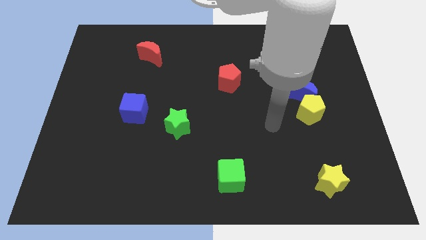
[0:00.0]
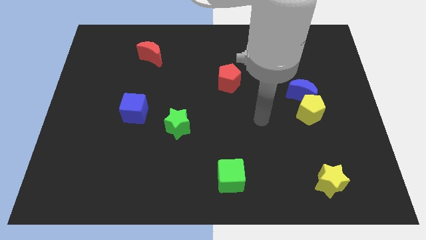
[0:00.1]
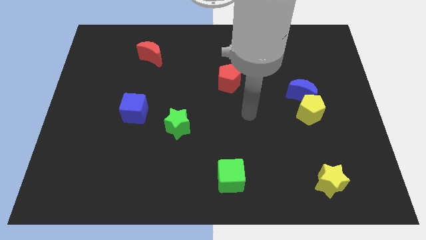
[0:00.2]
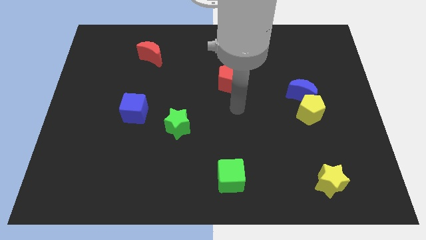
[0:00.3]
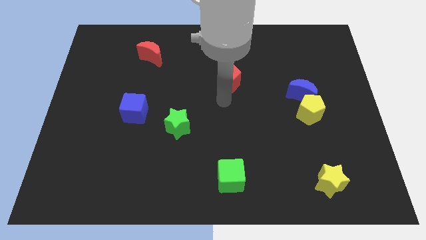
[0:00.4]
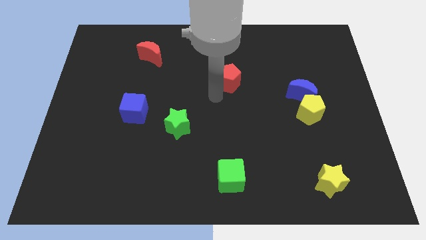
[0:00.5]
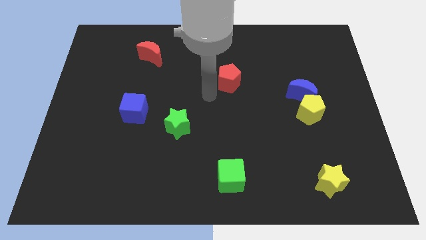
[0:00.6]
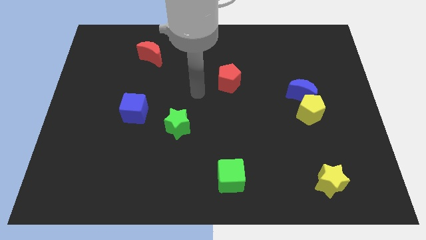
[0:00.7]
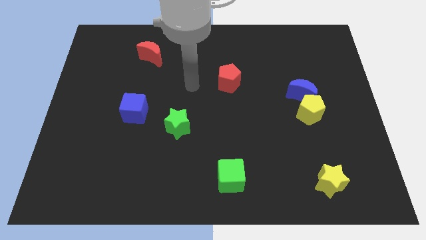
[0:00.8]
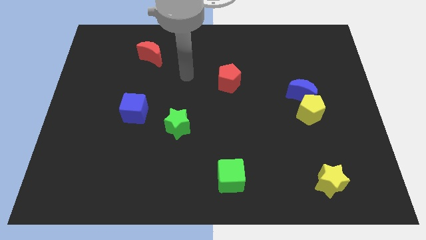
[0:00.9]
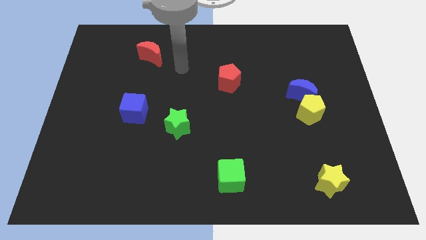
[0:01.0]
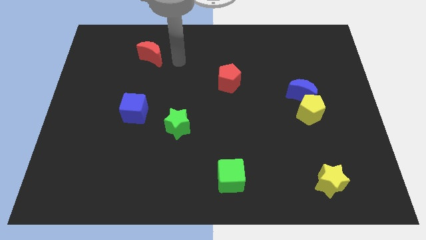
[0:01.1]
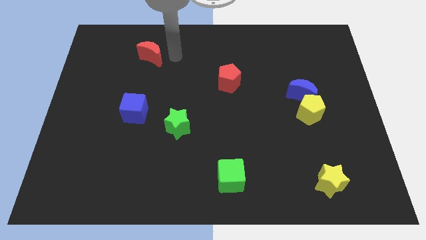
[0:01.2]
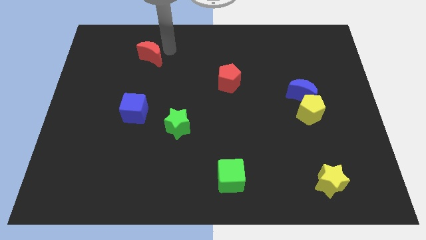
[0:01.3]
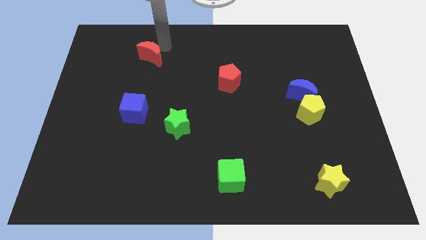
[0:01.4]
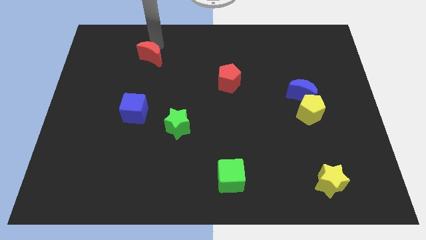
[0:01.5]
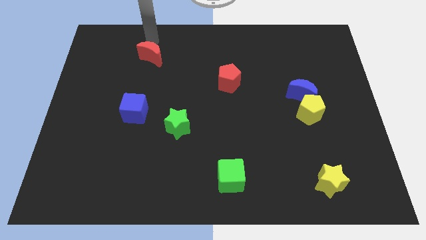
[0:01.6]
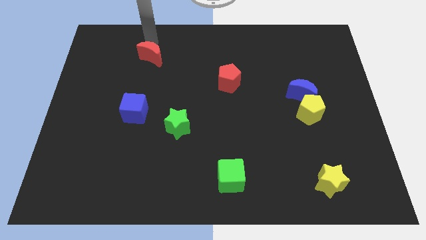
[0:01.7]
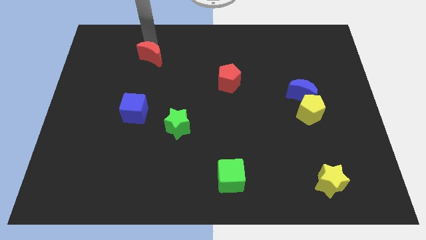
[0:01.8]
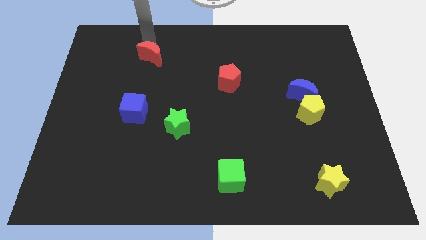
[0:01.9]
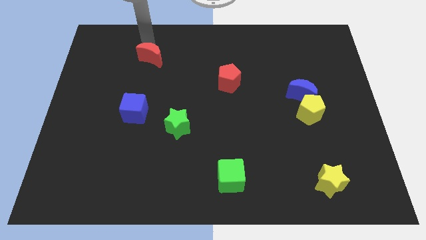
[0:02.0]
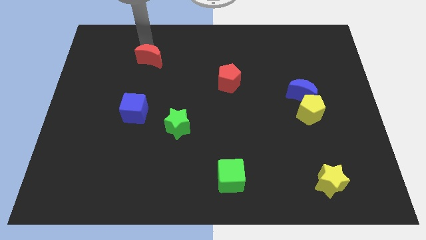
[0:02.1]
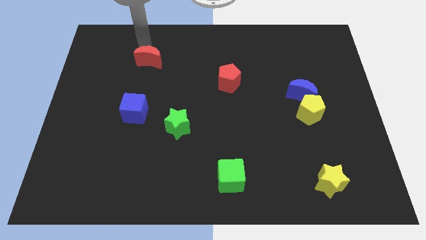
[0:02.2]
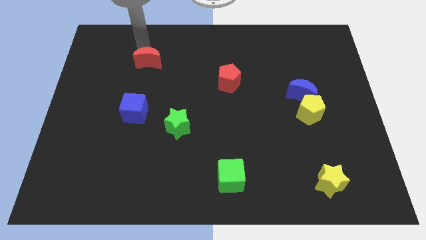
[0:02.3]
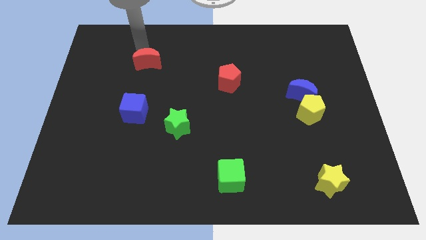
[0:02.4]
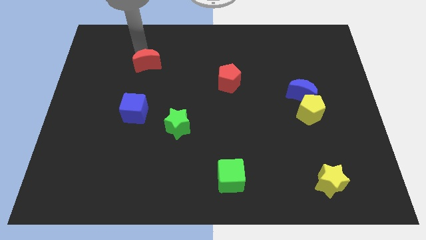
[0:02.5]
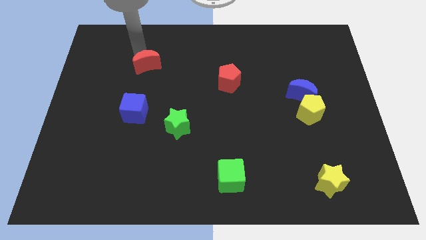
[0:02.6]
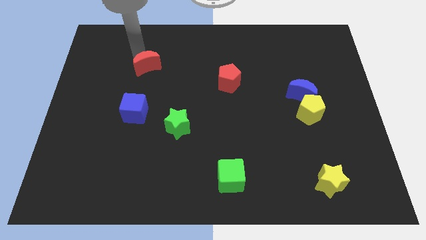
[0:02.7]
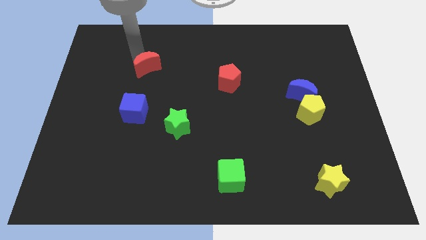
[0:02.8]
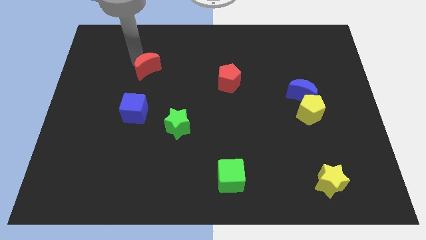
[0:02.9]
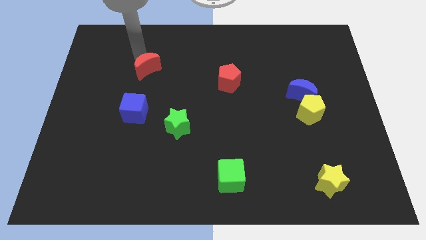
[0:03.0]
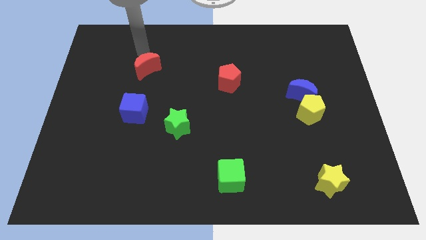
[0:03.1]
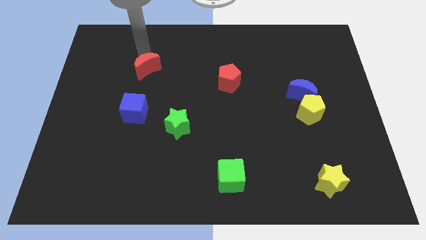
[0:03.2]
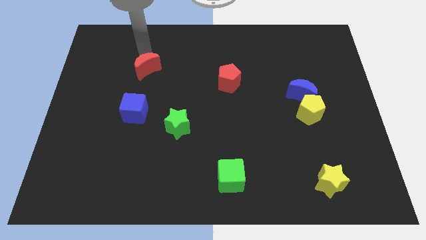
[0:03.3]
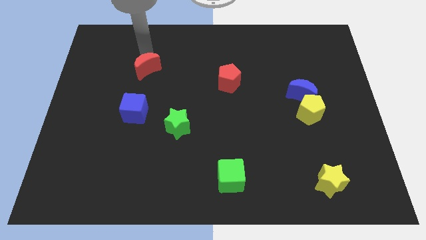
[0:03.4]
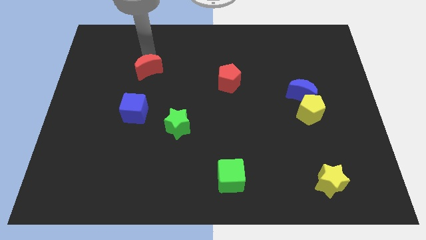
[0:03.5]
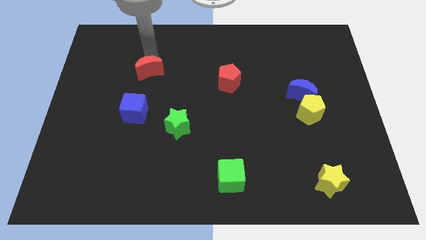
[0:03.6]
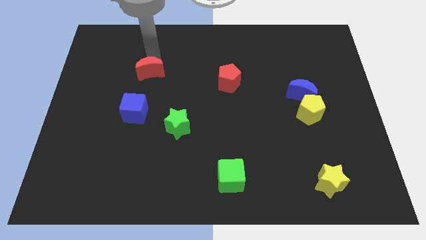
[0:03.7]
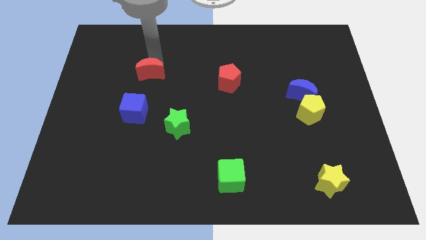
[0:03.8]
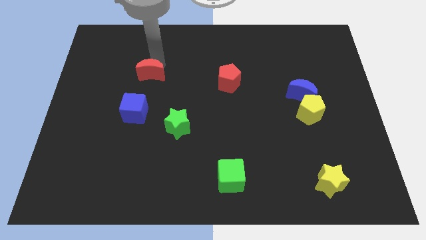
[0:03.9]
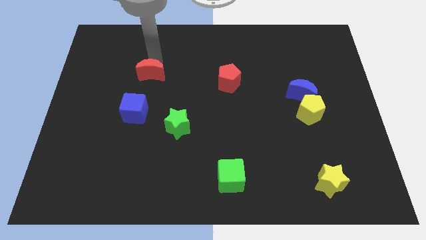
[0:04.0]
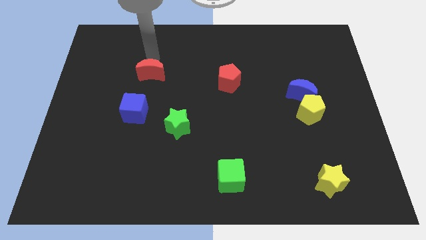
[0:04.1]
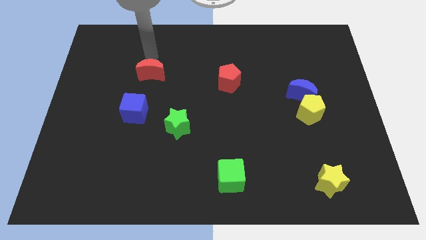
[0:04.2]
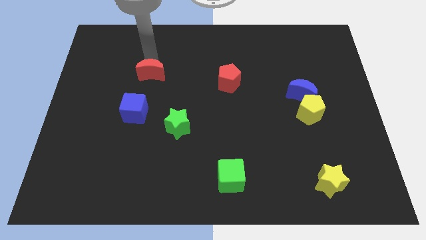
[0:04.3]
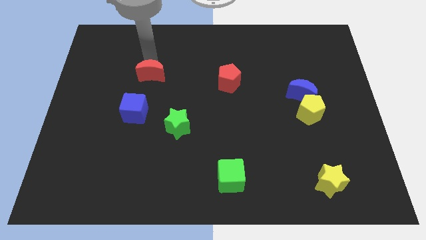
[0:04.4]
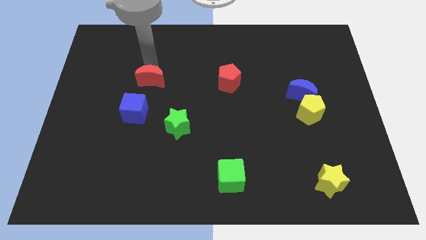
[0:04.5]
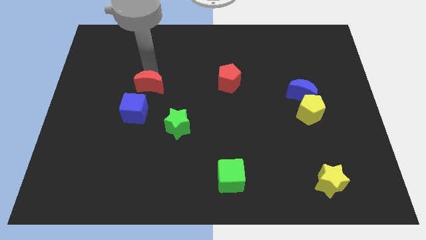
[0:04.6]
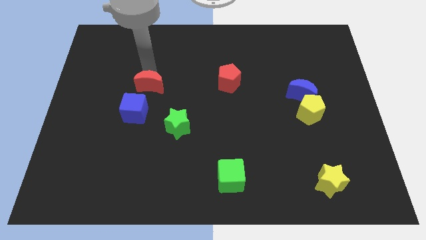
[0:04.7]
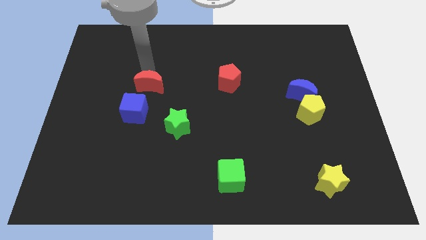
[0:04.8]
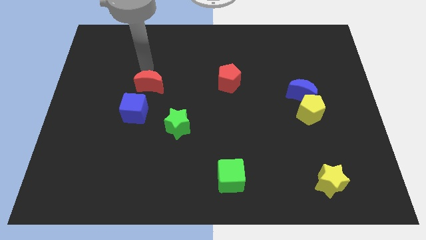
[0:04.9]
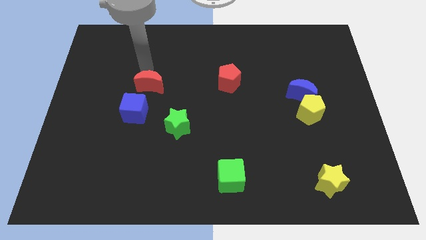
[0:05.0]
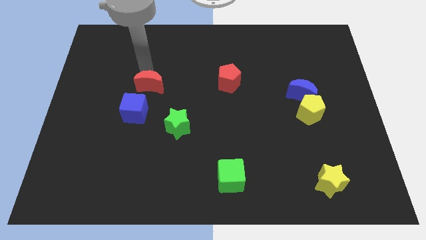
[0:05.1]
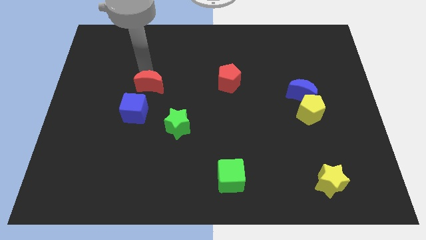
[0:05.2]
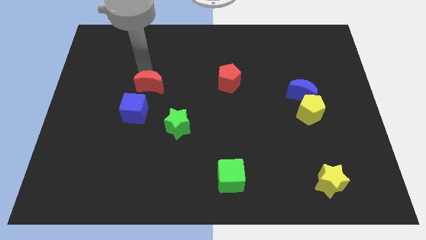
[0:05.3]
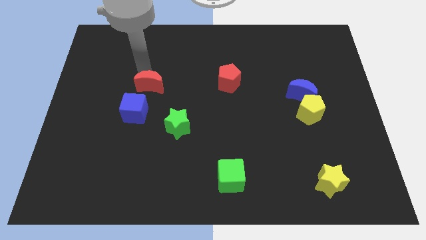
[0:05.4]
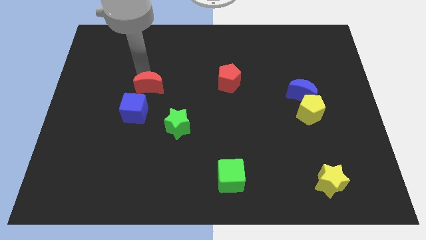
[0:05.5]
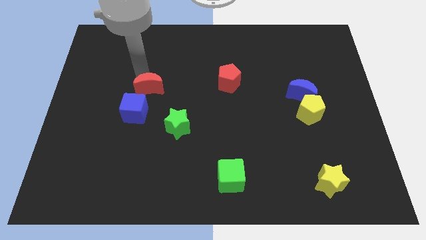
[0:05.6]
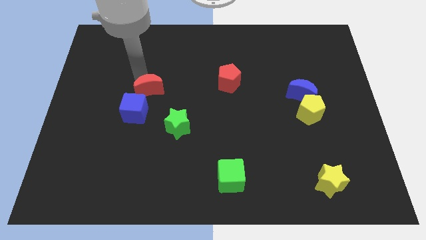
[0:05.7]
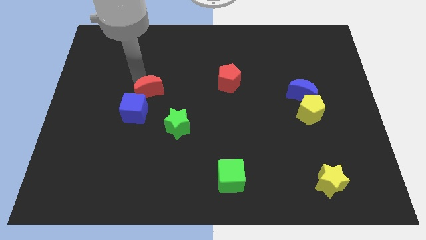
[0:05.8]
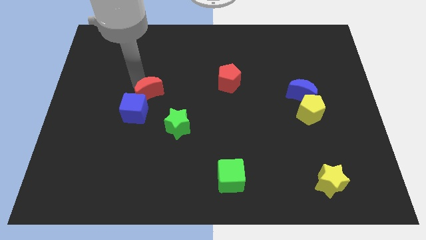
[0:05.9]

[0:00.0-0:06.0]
put the red moon to the top left side of the green star

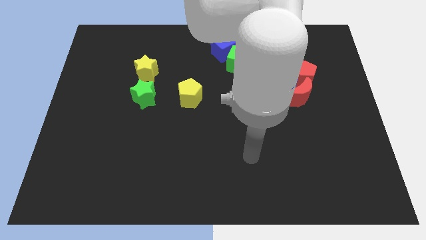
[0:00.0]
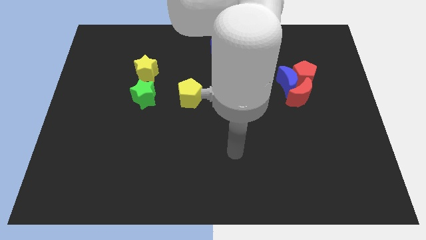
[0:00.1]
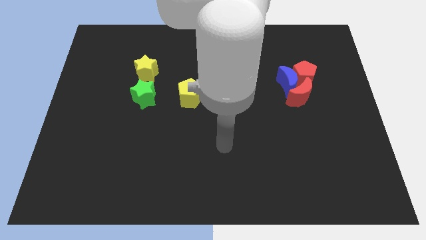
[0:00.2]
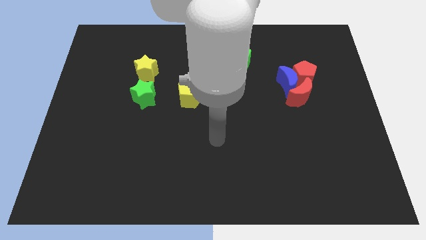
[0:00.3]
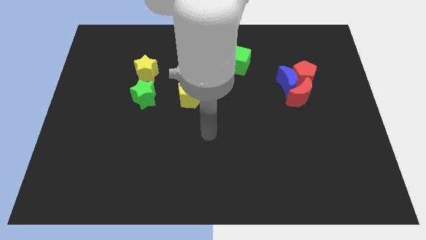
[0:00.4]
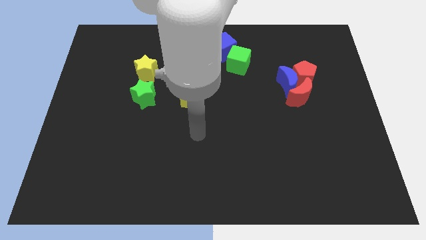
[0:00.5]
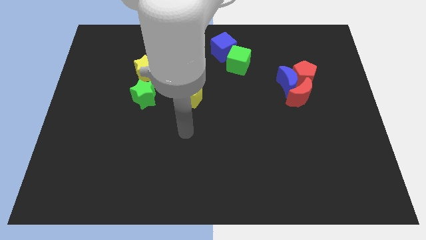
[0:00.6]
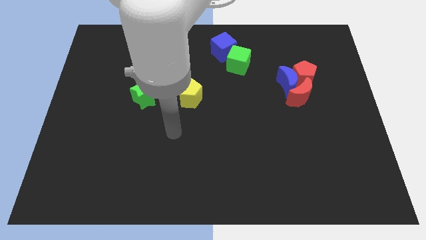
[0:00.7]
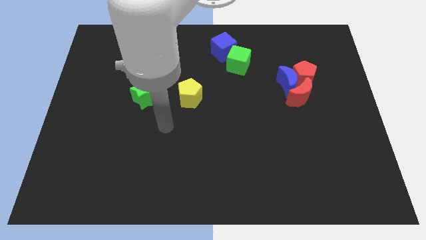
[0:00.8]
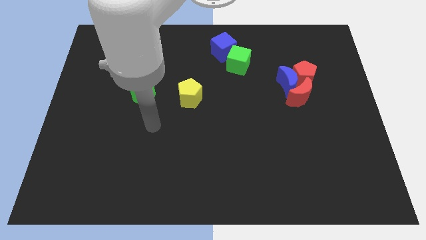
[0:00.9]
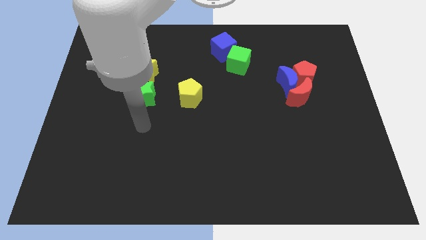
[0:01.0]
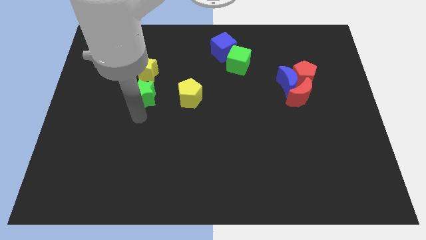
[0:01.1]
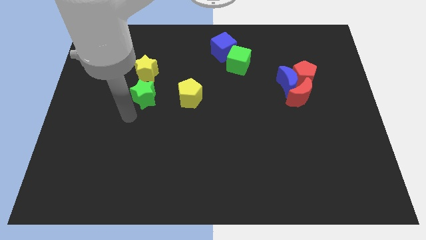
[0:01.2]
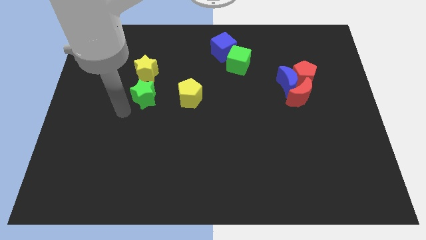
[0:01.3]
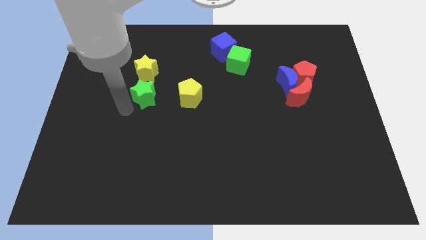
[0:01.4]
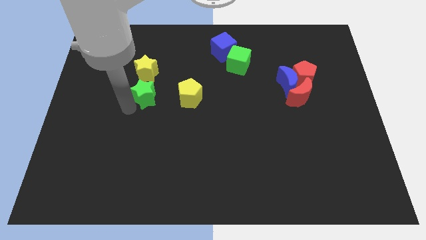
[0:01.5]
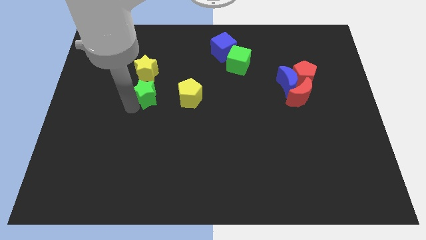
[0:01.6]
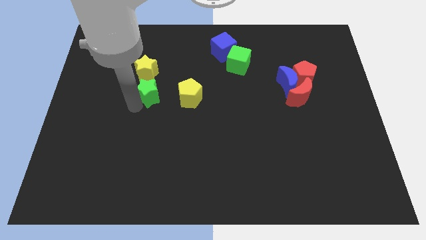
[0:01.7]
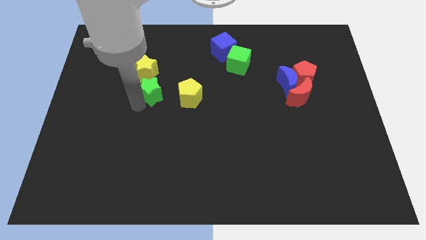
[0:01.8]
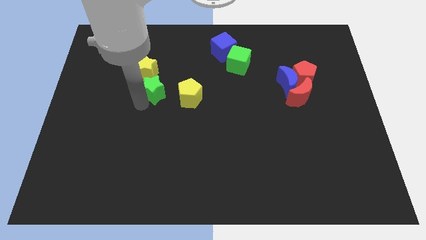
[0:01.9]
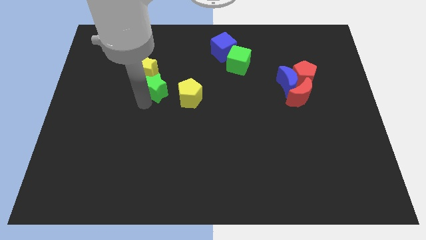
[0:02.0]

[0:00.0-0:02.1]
put the green star to the top left of the yellow pentagon
